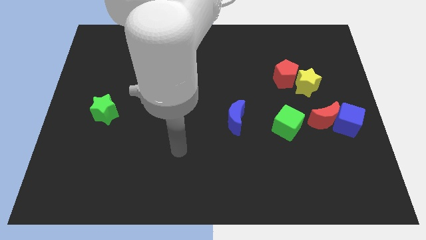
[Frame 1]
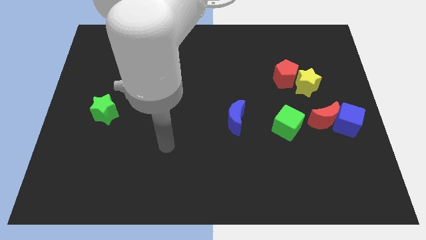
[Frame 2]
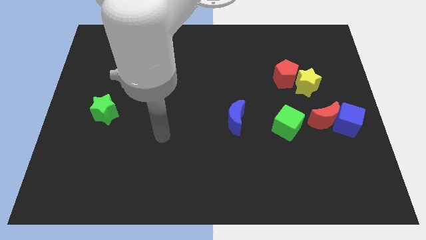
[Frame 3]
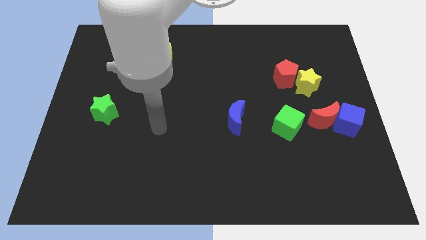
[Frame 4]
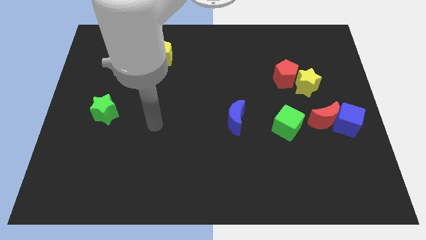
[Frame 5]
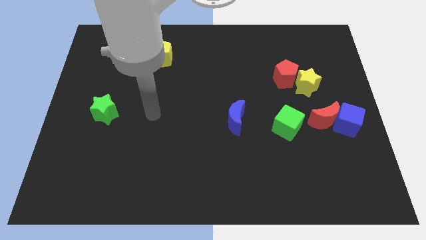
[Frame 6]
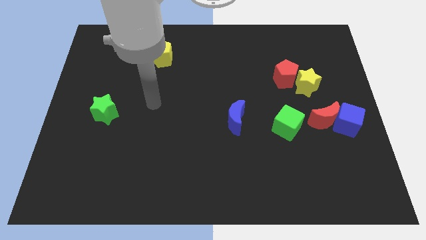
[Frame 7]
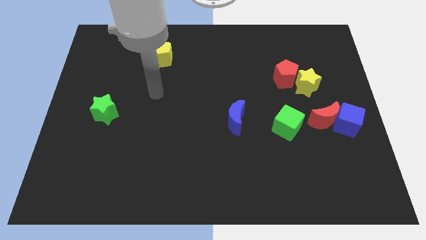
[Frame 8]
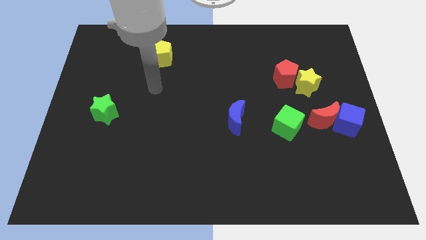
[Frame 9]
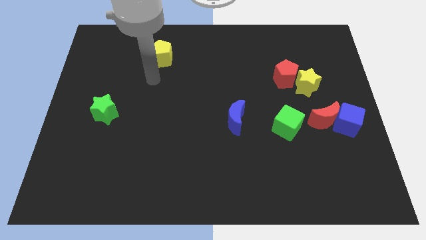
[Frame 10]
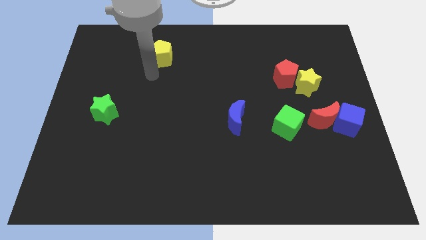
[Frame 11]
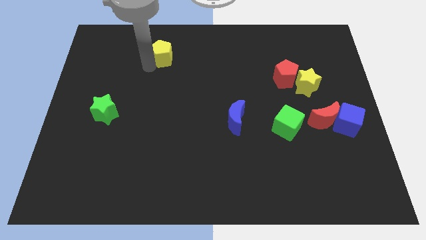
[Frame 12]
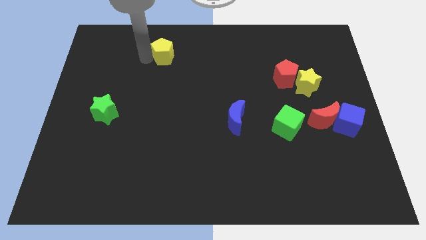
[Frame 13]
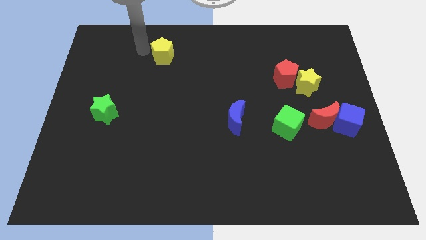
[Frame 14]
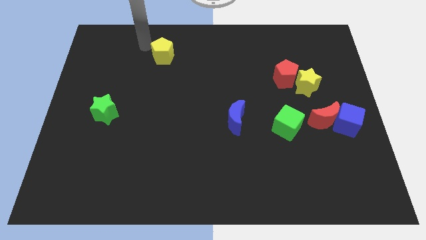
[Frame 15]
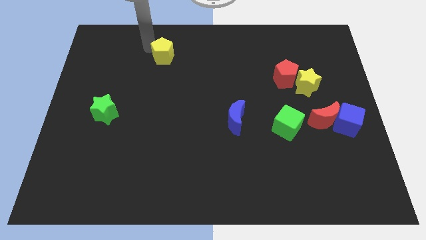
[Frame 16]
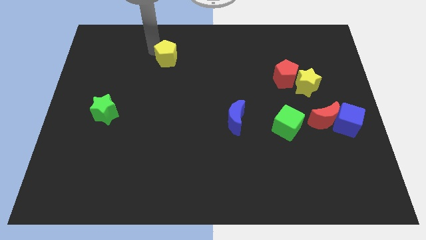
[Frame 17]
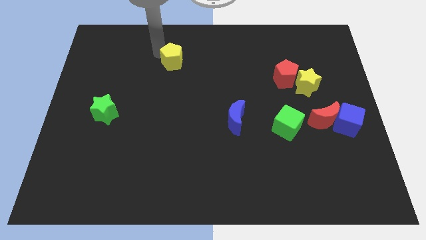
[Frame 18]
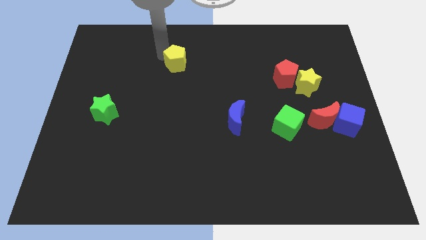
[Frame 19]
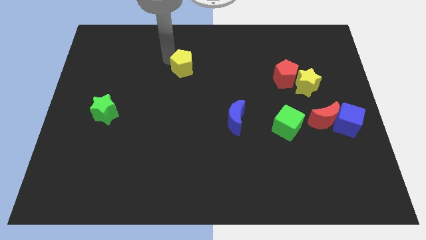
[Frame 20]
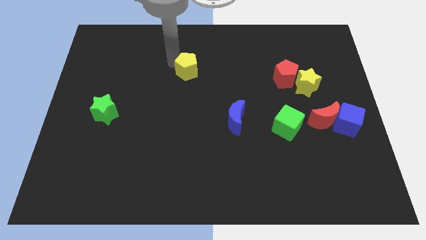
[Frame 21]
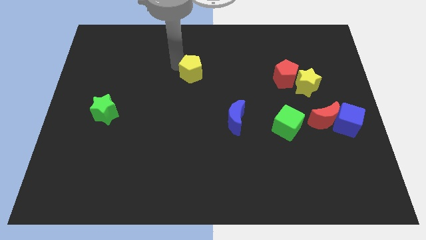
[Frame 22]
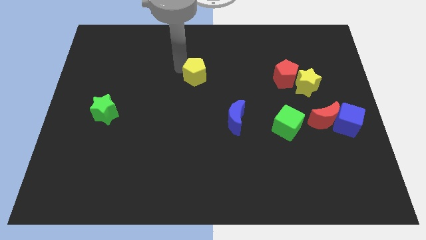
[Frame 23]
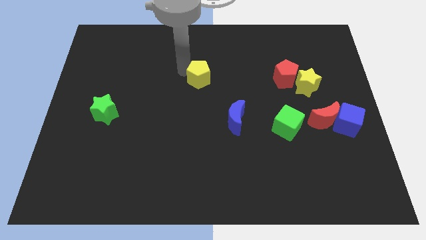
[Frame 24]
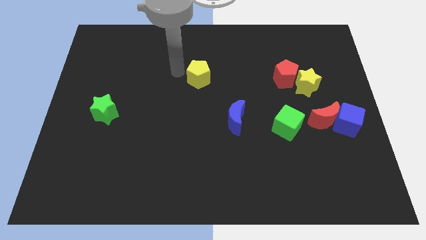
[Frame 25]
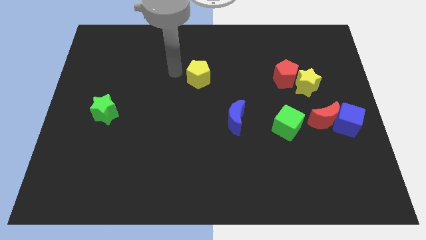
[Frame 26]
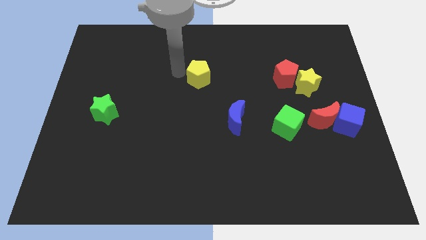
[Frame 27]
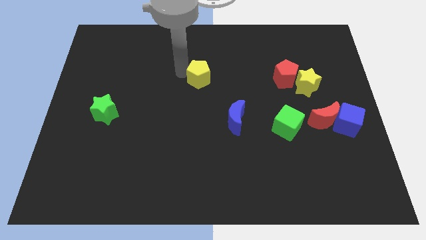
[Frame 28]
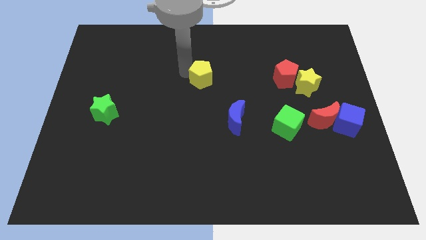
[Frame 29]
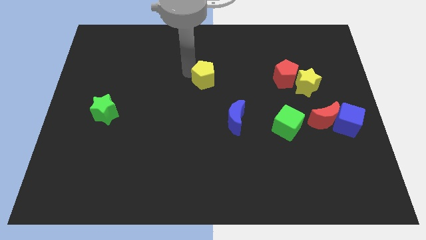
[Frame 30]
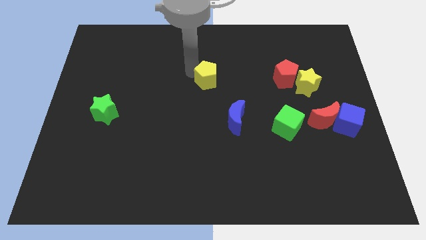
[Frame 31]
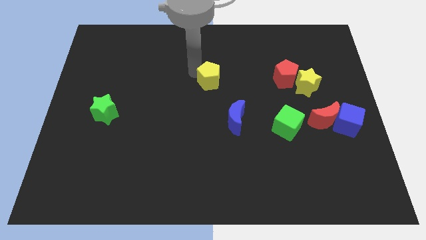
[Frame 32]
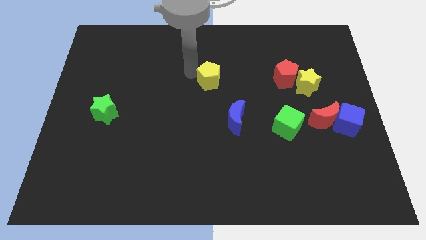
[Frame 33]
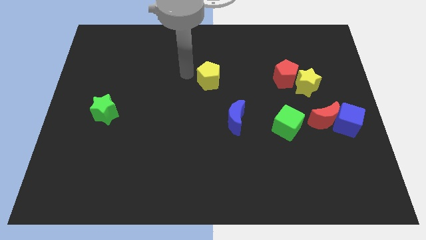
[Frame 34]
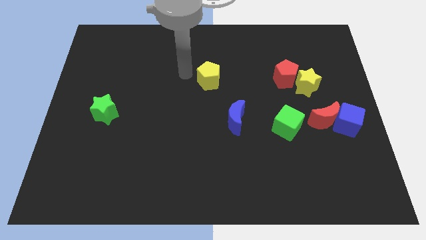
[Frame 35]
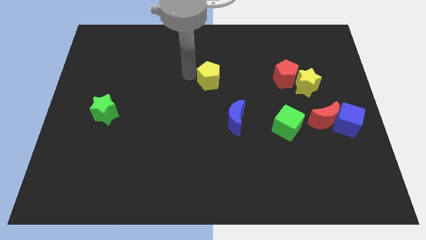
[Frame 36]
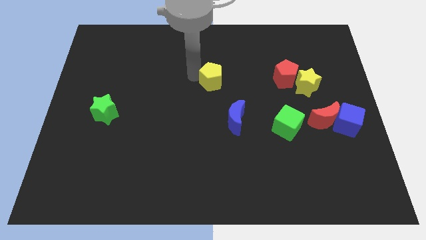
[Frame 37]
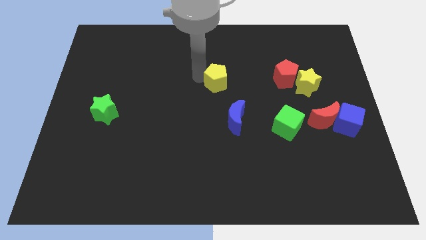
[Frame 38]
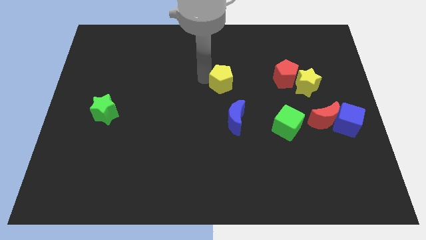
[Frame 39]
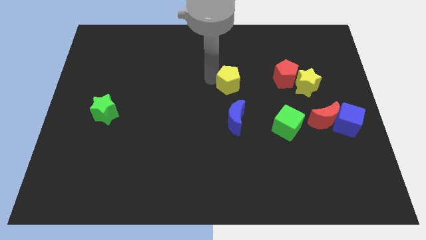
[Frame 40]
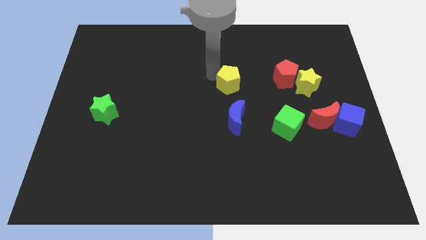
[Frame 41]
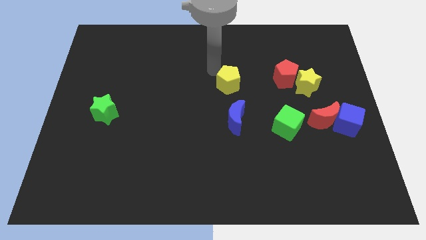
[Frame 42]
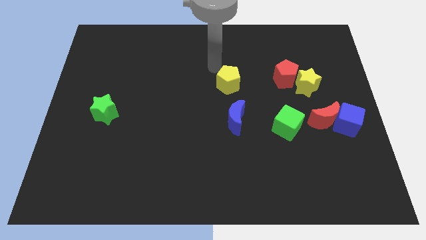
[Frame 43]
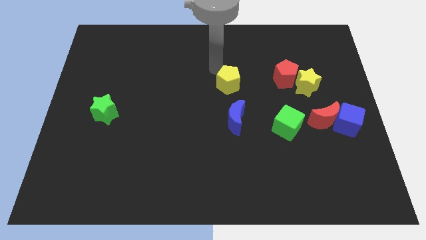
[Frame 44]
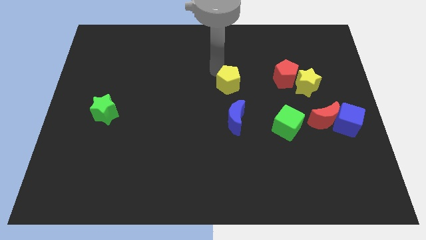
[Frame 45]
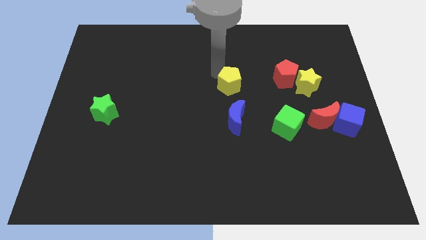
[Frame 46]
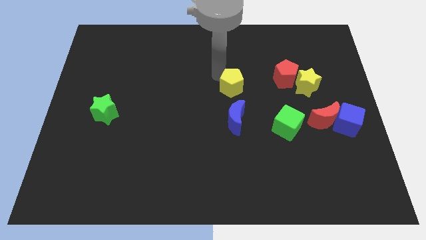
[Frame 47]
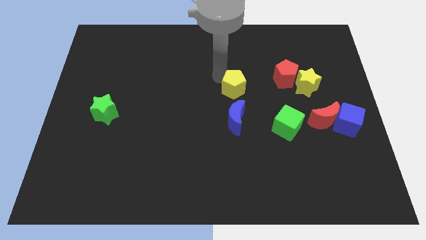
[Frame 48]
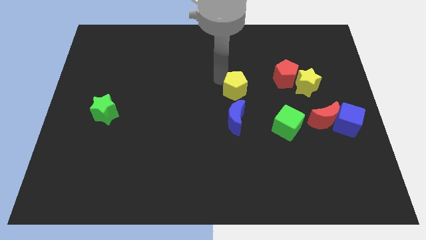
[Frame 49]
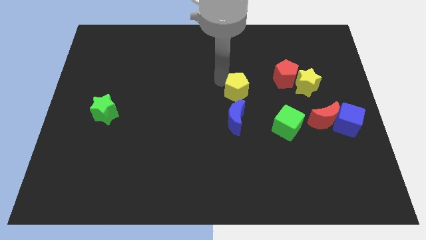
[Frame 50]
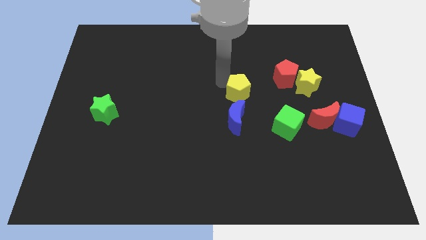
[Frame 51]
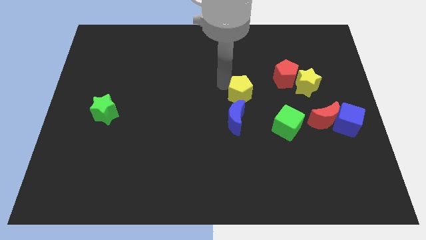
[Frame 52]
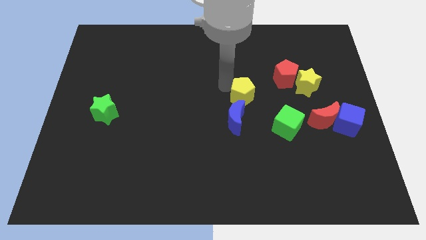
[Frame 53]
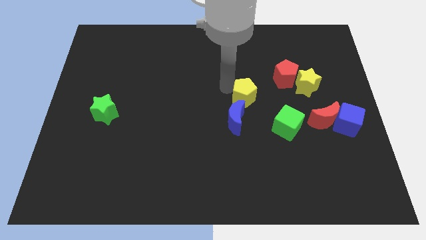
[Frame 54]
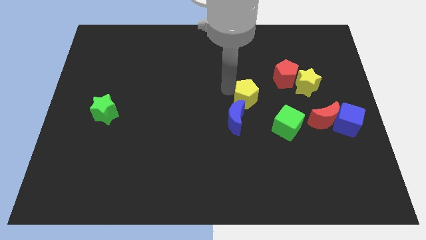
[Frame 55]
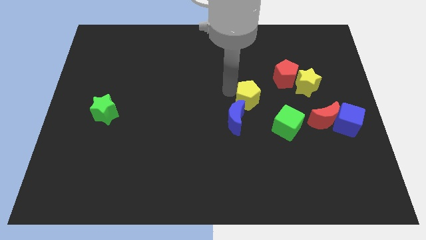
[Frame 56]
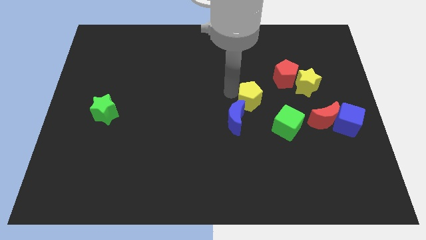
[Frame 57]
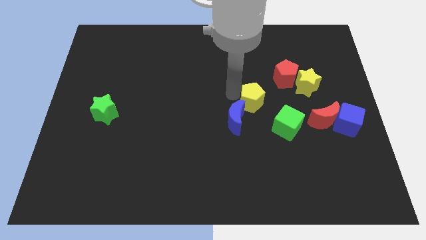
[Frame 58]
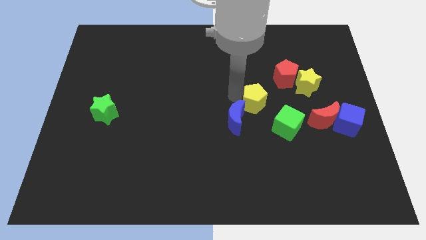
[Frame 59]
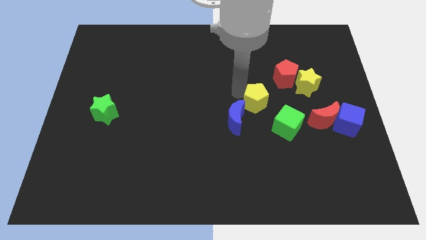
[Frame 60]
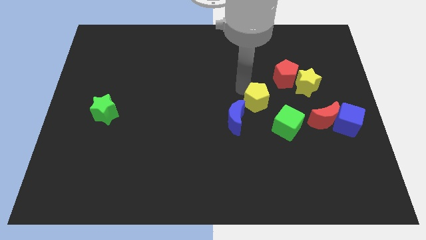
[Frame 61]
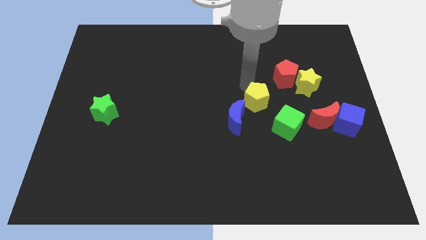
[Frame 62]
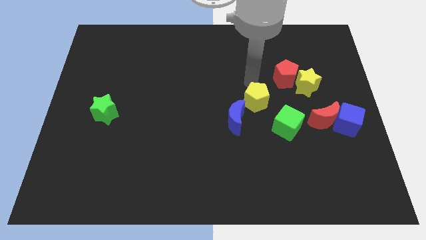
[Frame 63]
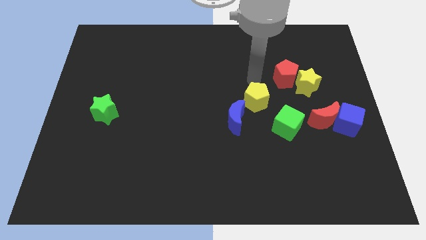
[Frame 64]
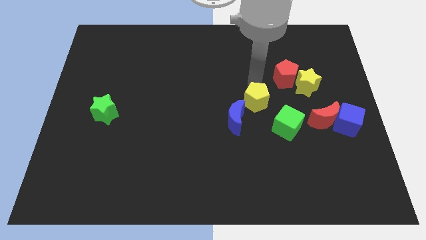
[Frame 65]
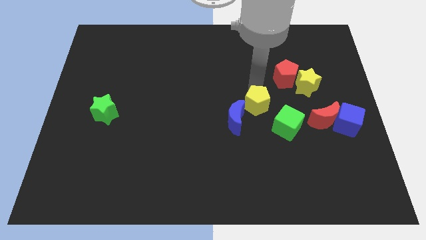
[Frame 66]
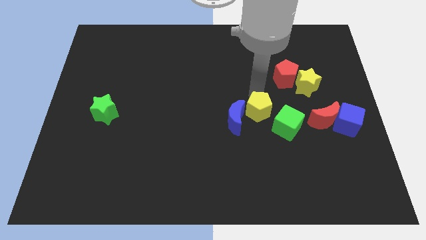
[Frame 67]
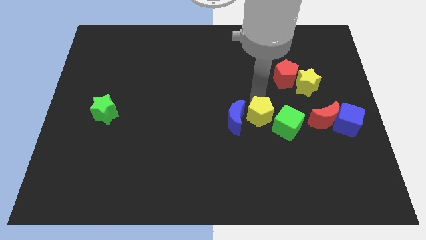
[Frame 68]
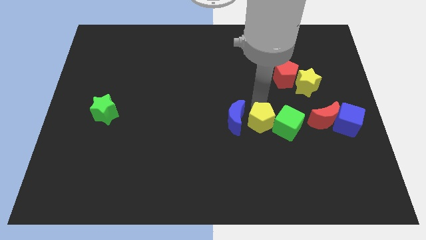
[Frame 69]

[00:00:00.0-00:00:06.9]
slide the yellow pentagon diagonally down and to the right of the blue moon
